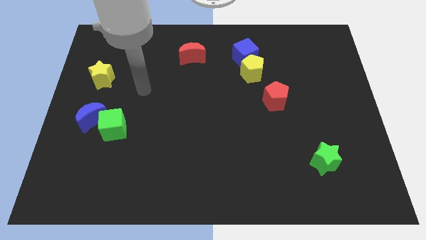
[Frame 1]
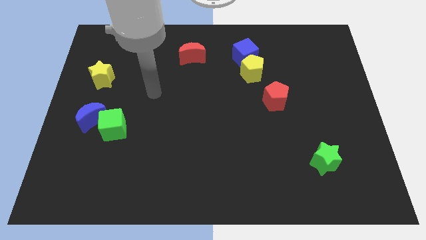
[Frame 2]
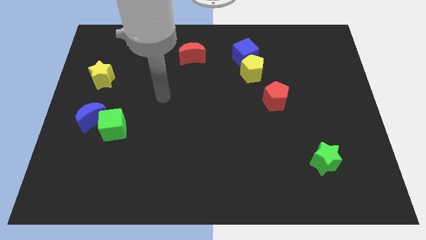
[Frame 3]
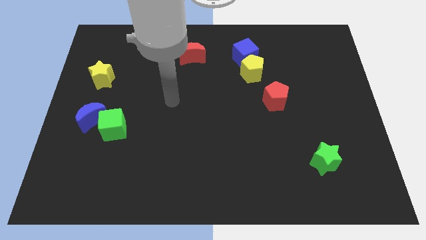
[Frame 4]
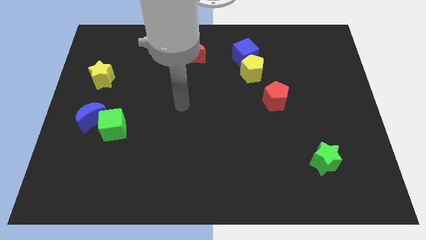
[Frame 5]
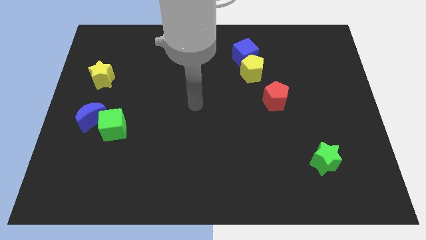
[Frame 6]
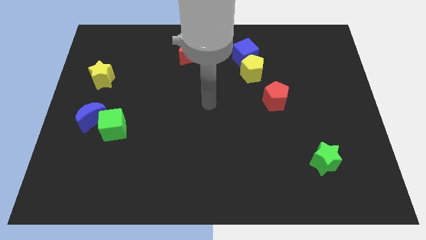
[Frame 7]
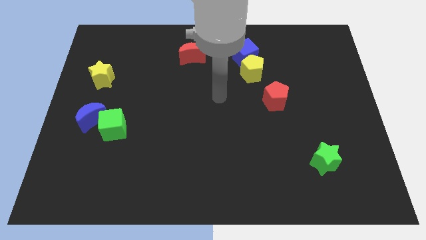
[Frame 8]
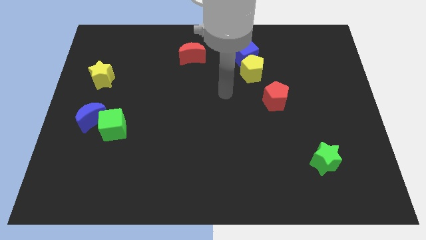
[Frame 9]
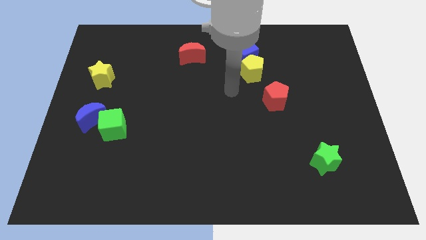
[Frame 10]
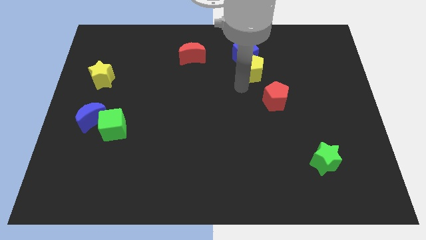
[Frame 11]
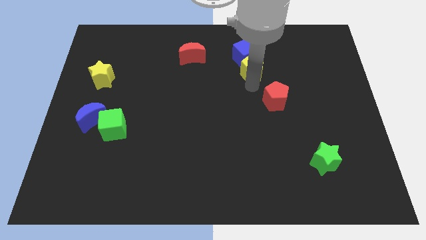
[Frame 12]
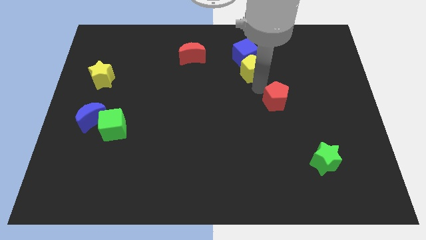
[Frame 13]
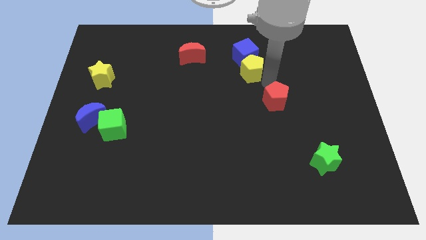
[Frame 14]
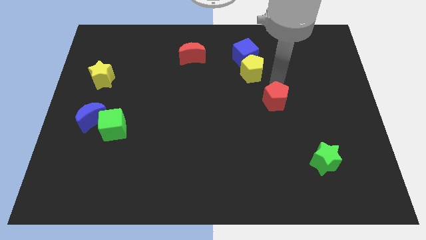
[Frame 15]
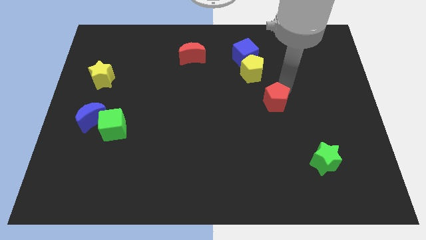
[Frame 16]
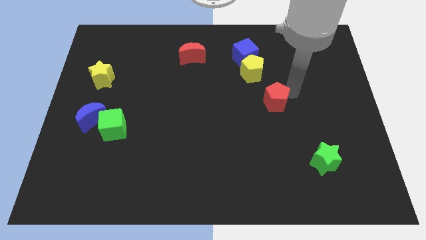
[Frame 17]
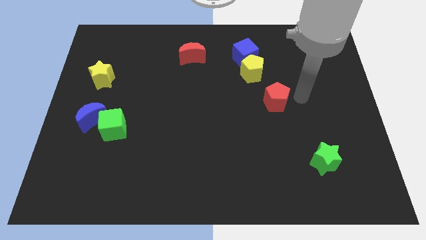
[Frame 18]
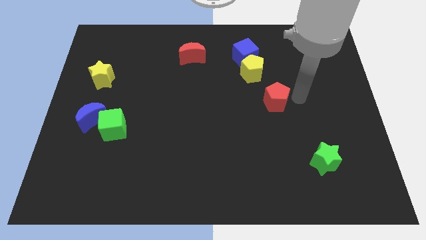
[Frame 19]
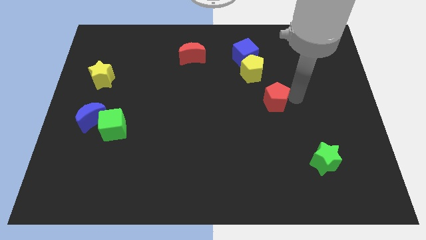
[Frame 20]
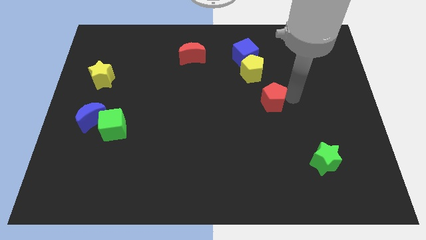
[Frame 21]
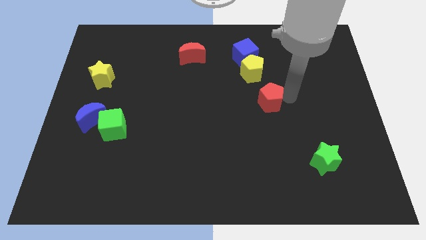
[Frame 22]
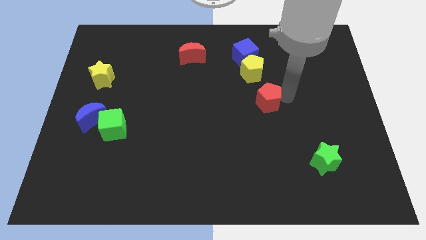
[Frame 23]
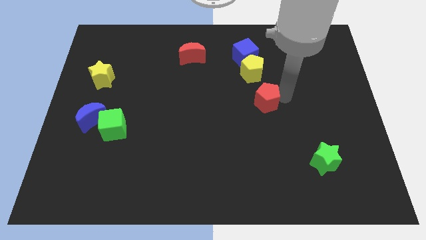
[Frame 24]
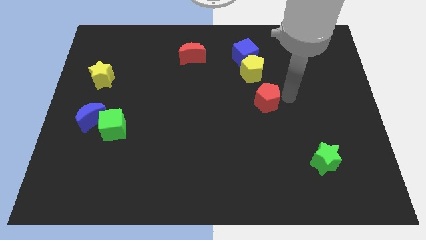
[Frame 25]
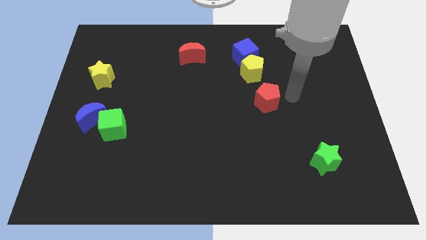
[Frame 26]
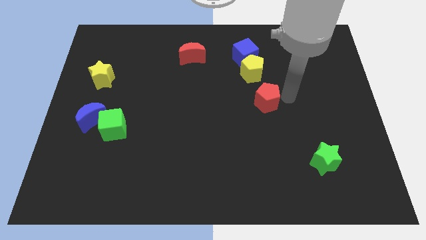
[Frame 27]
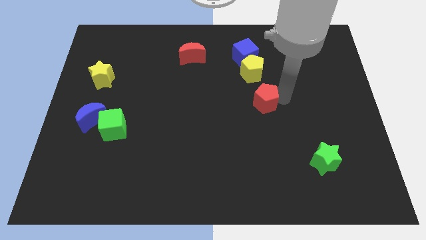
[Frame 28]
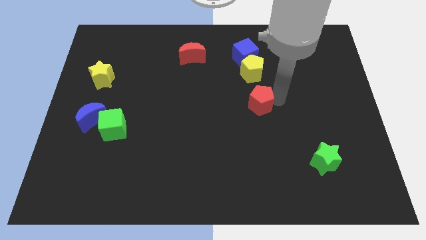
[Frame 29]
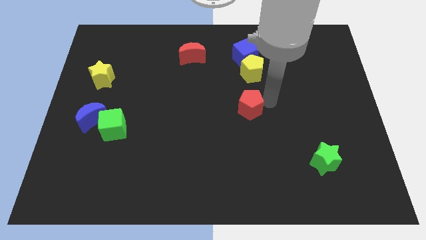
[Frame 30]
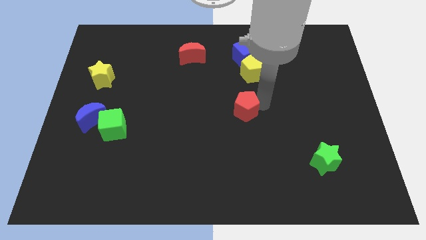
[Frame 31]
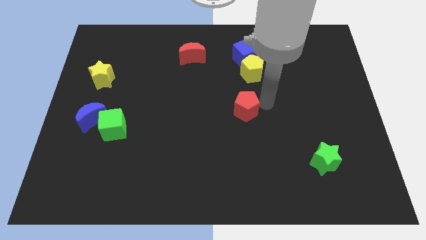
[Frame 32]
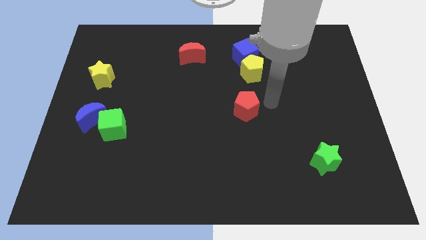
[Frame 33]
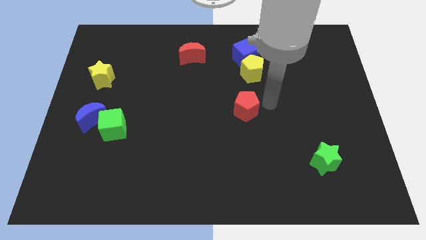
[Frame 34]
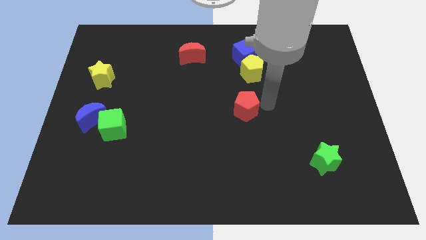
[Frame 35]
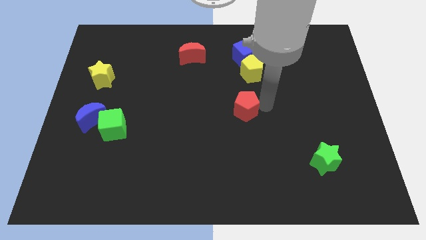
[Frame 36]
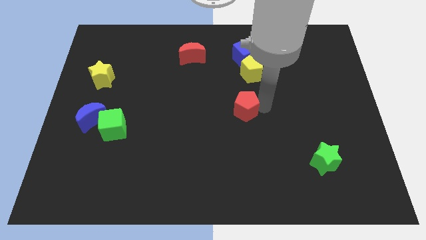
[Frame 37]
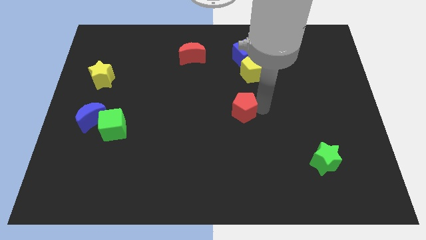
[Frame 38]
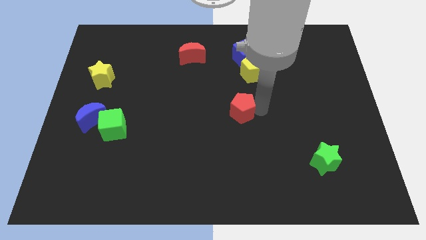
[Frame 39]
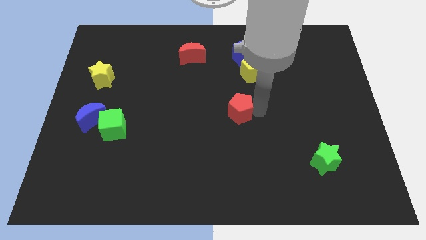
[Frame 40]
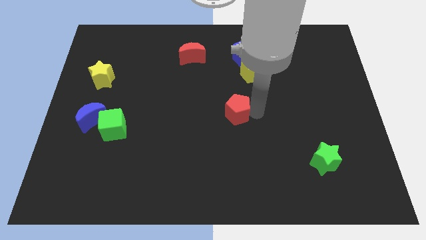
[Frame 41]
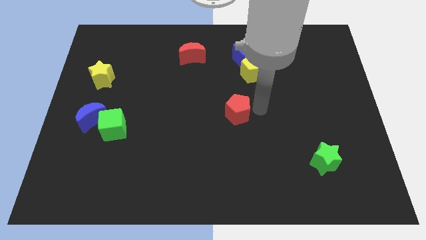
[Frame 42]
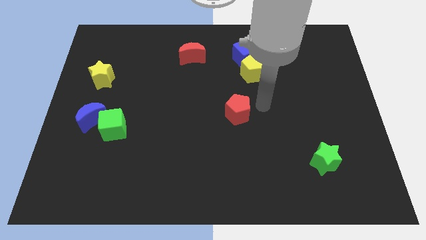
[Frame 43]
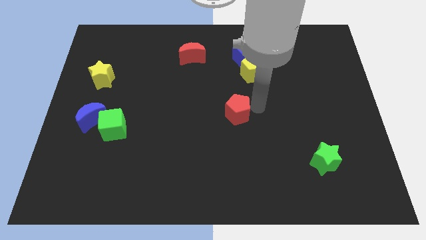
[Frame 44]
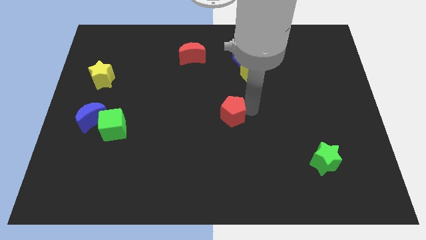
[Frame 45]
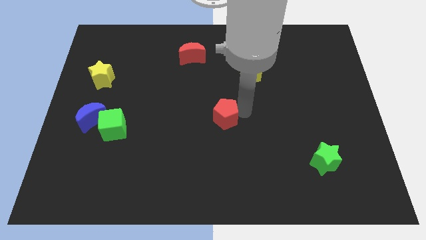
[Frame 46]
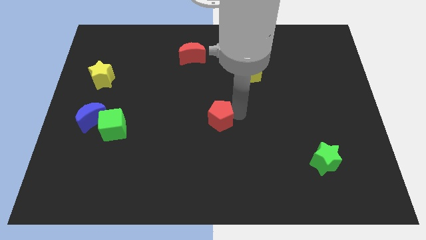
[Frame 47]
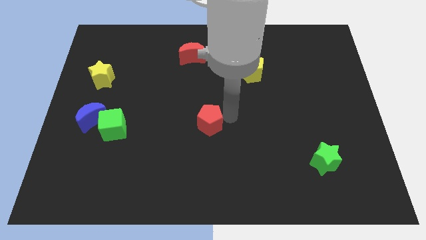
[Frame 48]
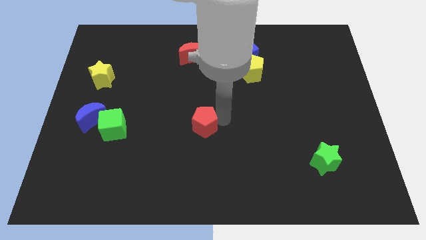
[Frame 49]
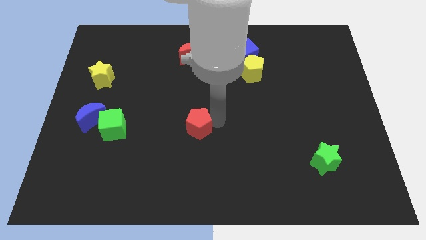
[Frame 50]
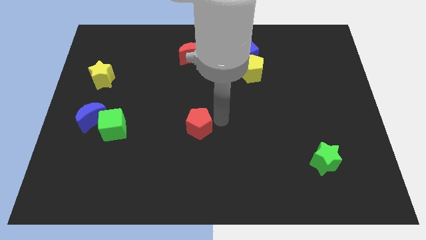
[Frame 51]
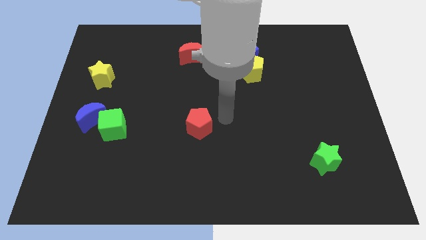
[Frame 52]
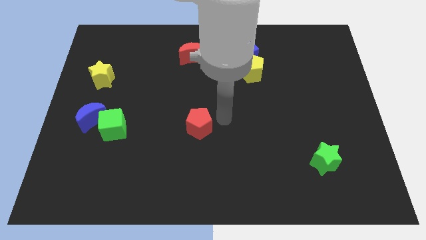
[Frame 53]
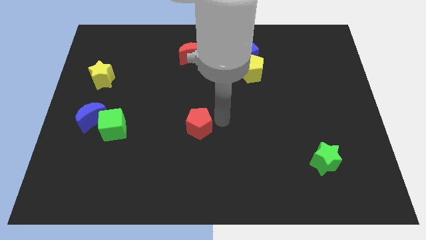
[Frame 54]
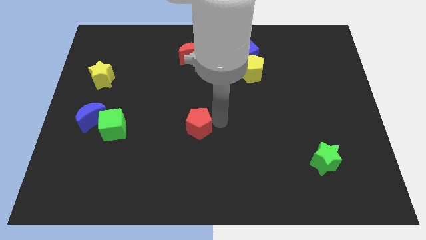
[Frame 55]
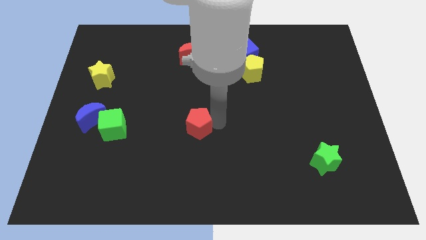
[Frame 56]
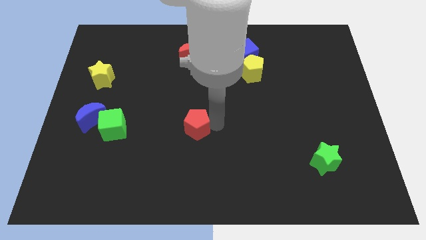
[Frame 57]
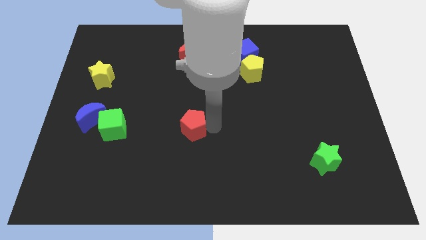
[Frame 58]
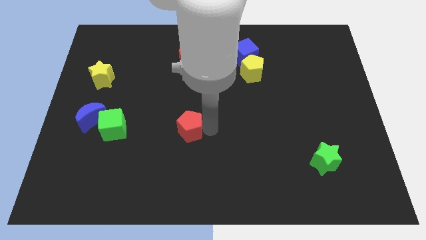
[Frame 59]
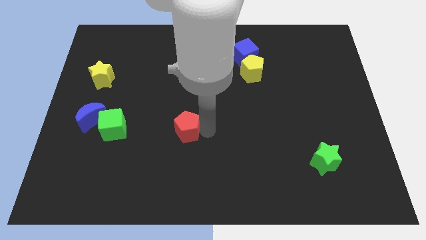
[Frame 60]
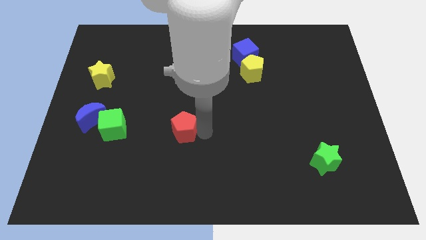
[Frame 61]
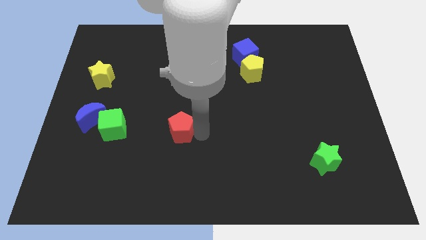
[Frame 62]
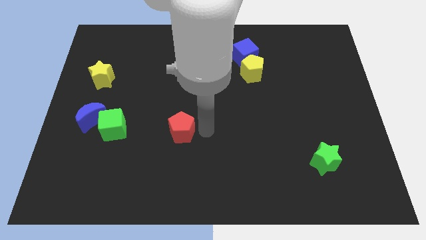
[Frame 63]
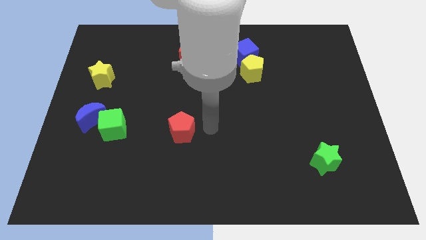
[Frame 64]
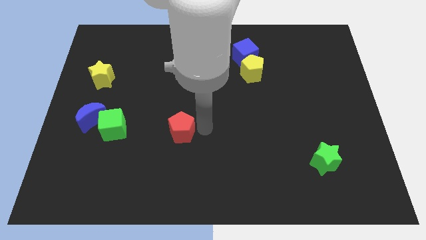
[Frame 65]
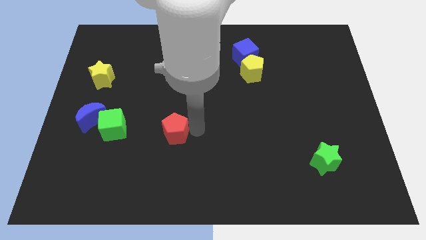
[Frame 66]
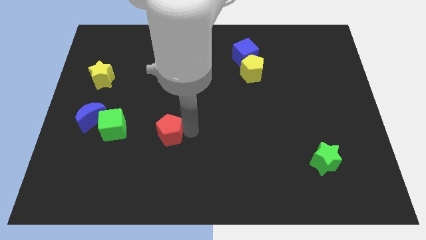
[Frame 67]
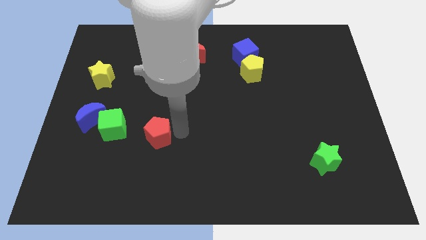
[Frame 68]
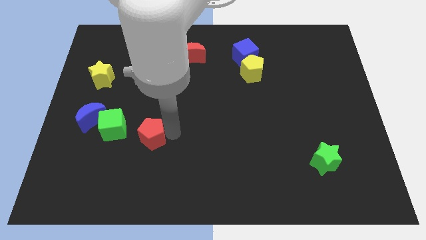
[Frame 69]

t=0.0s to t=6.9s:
put the red pentagon diagonally down and to the right of the green cube
